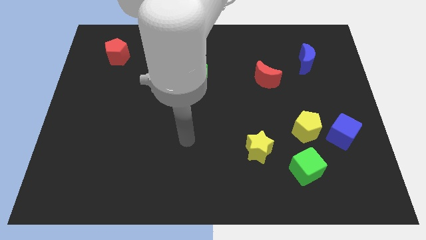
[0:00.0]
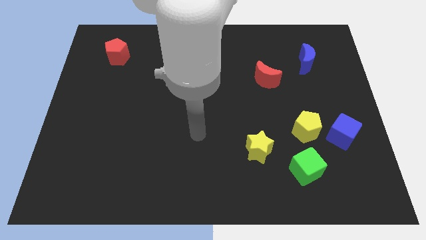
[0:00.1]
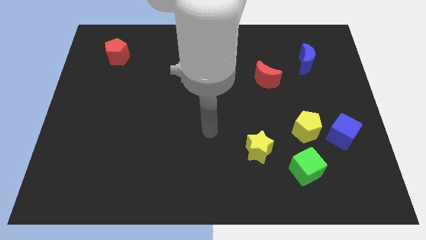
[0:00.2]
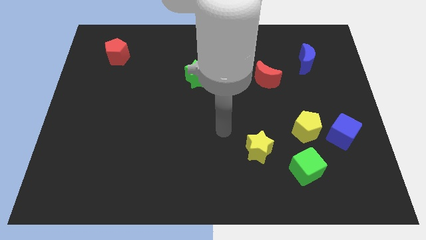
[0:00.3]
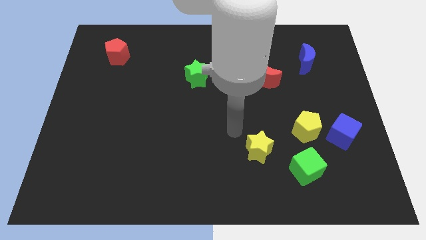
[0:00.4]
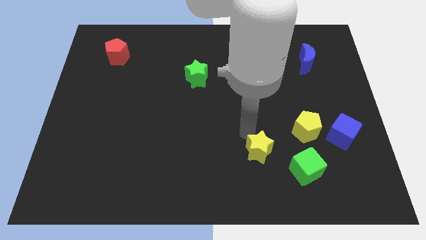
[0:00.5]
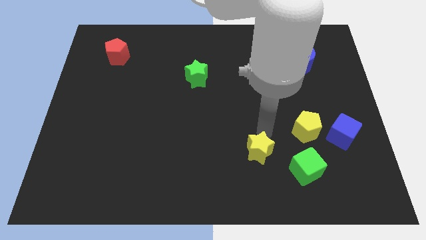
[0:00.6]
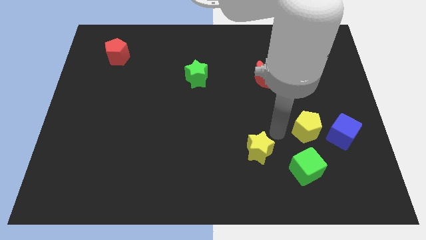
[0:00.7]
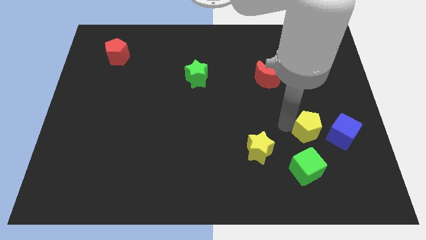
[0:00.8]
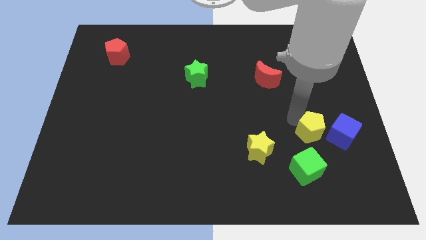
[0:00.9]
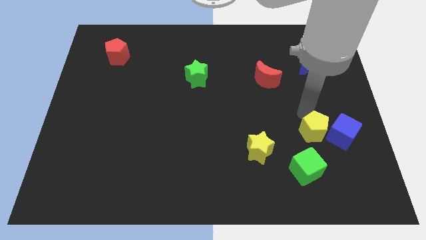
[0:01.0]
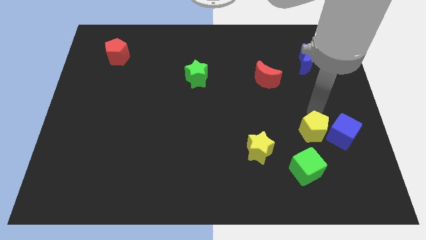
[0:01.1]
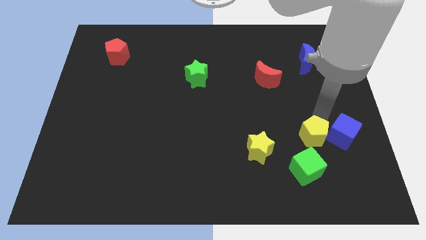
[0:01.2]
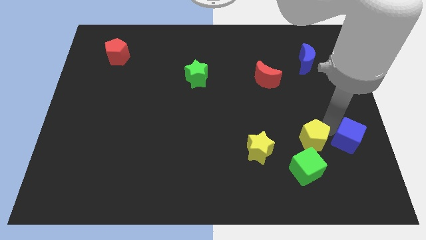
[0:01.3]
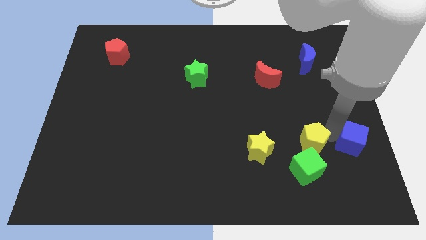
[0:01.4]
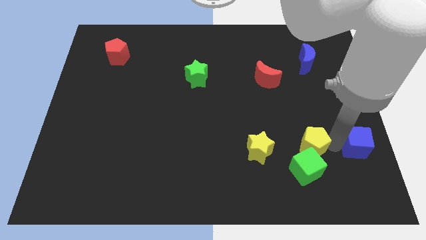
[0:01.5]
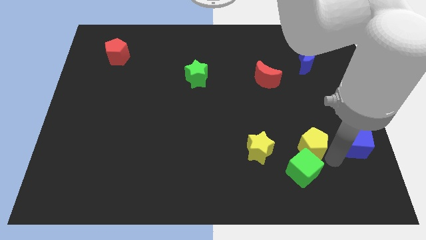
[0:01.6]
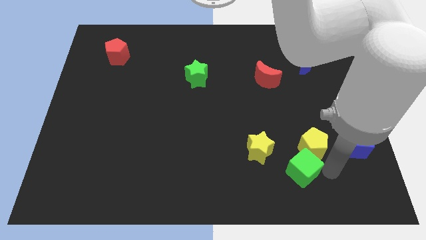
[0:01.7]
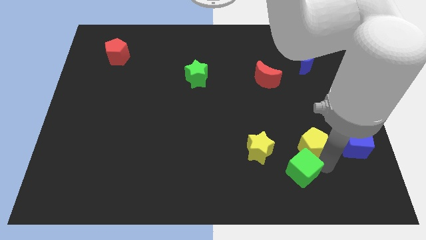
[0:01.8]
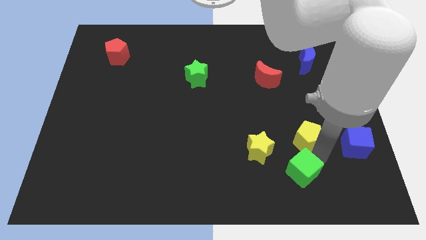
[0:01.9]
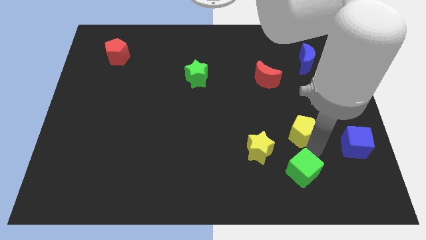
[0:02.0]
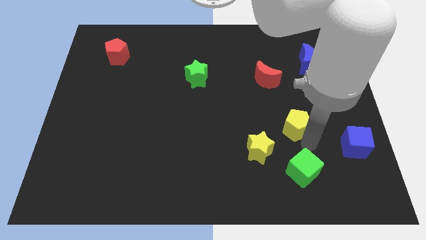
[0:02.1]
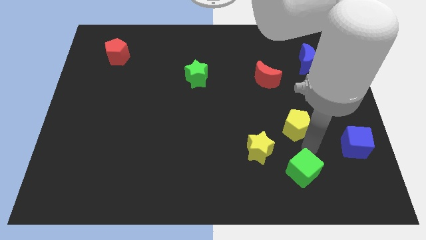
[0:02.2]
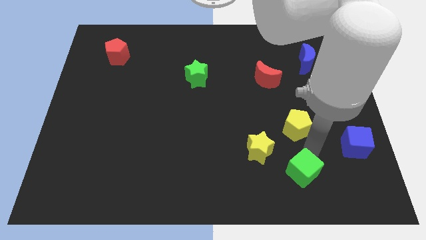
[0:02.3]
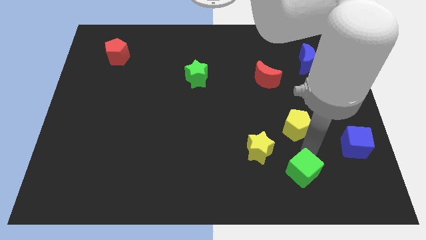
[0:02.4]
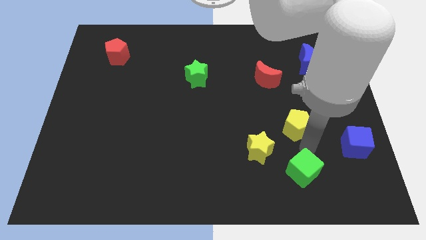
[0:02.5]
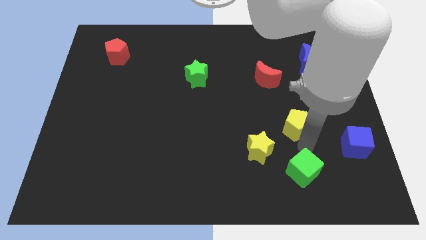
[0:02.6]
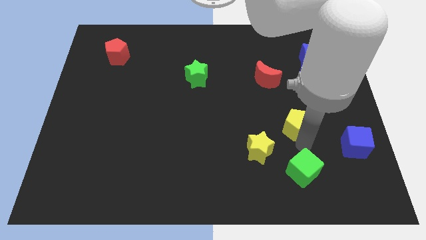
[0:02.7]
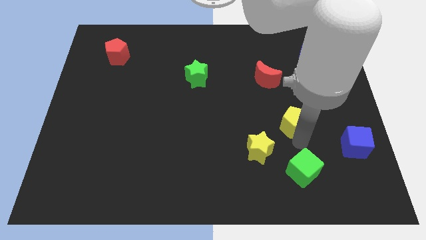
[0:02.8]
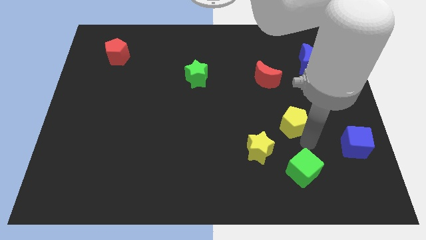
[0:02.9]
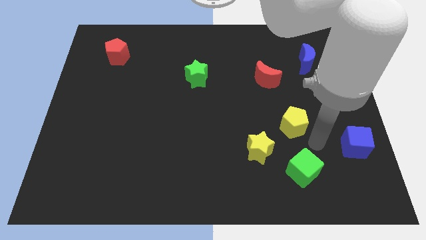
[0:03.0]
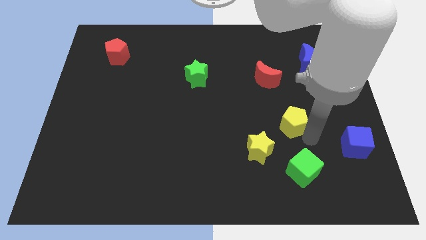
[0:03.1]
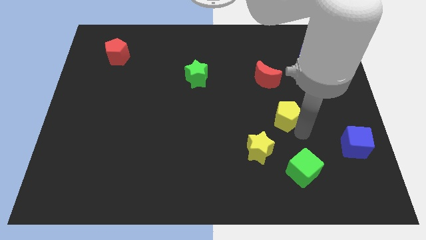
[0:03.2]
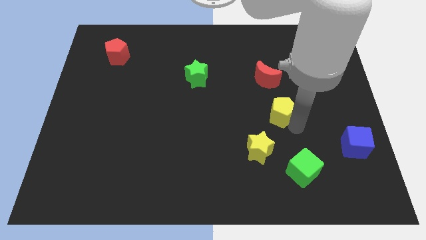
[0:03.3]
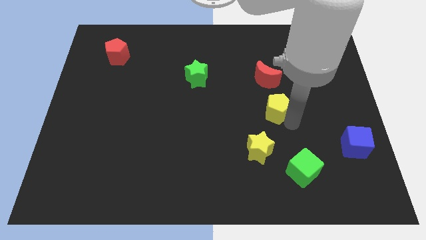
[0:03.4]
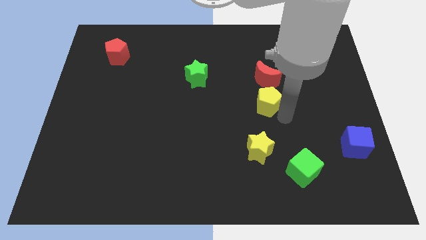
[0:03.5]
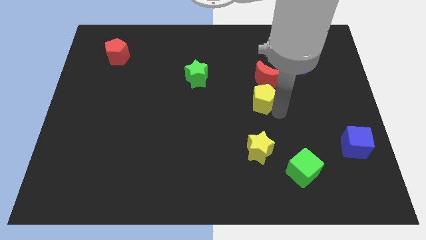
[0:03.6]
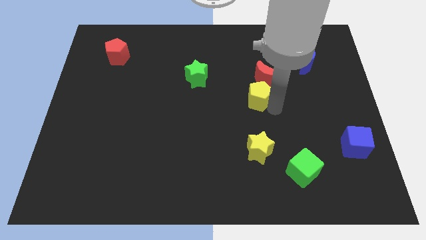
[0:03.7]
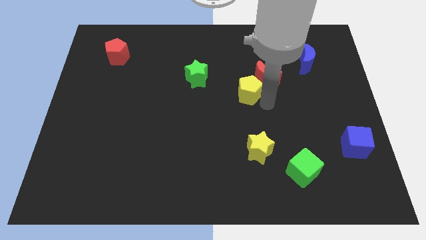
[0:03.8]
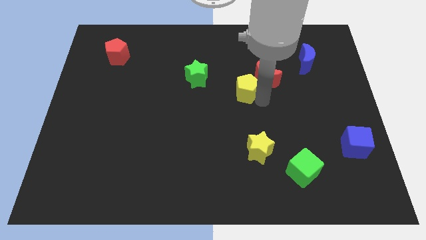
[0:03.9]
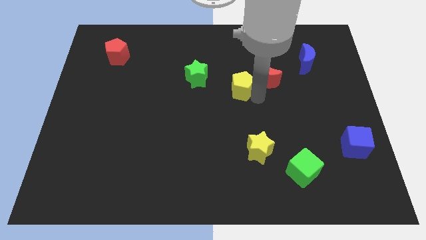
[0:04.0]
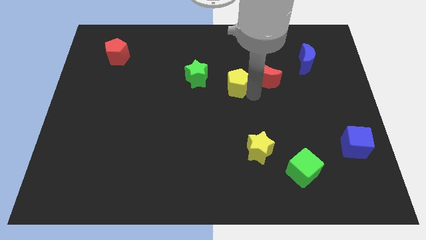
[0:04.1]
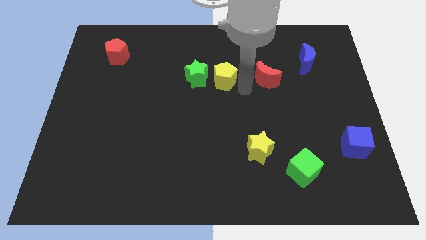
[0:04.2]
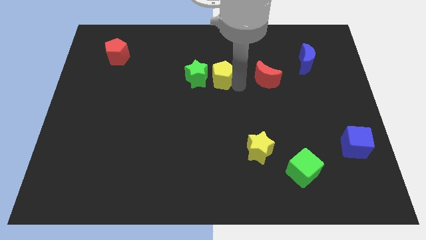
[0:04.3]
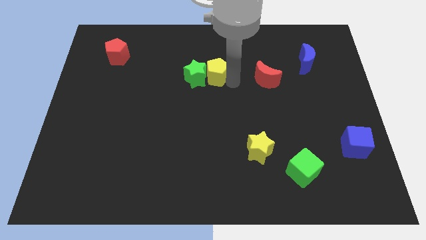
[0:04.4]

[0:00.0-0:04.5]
slide the yellow pentagon close to the green star

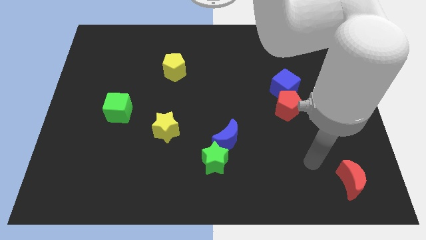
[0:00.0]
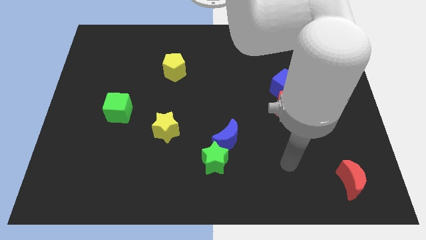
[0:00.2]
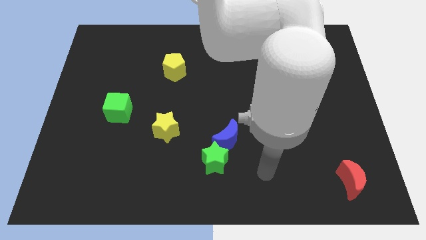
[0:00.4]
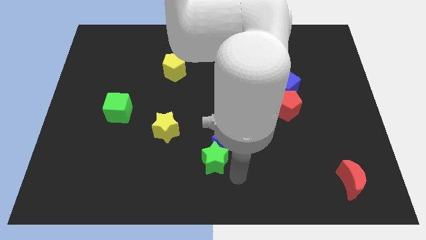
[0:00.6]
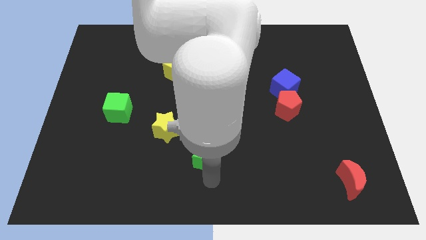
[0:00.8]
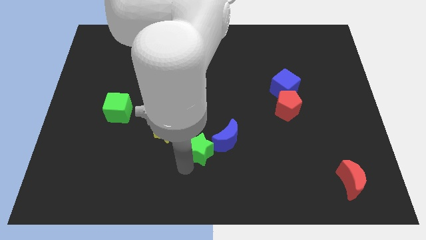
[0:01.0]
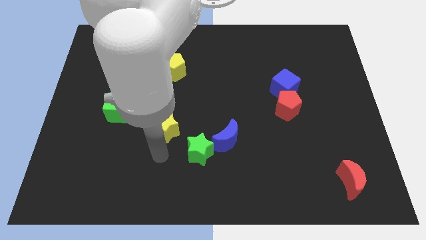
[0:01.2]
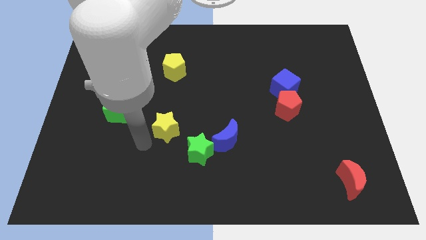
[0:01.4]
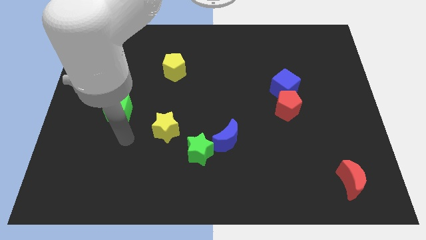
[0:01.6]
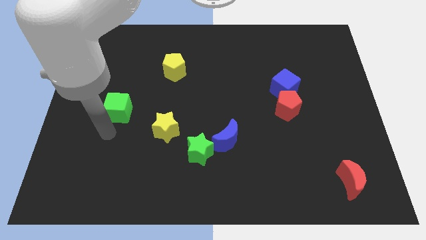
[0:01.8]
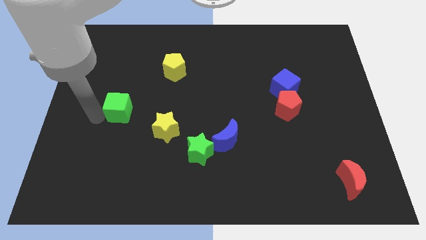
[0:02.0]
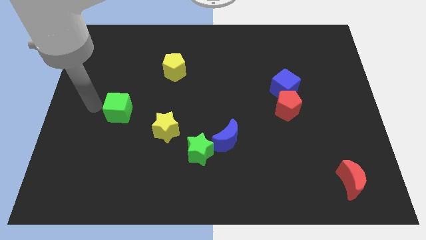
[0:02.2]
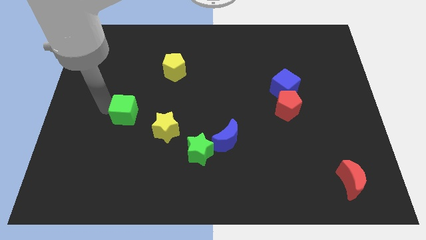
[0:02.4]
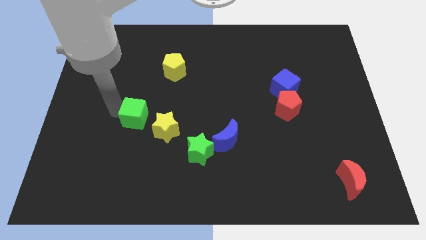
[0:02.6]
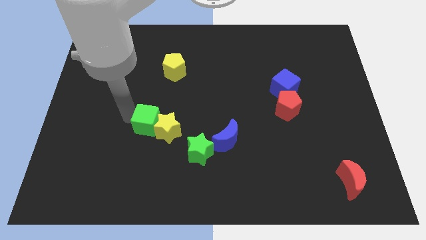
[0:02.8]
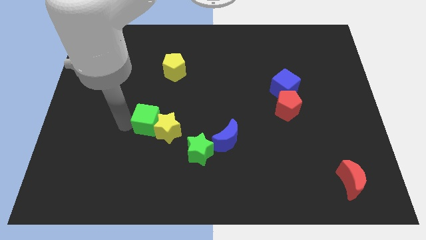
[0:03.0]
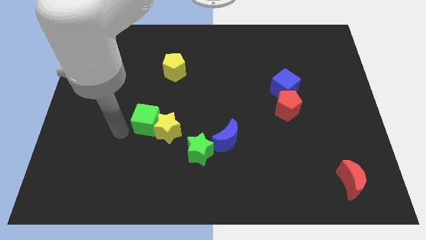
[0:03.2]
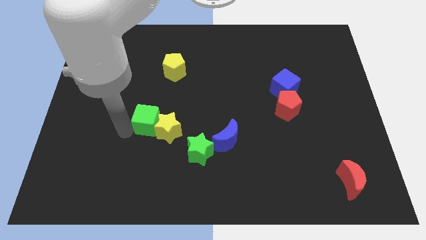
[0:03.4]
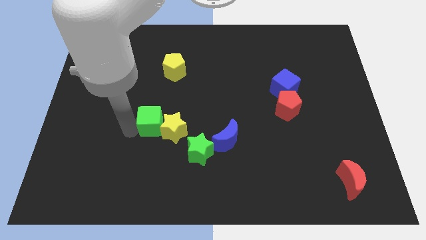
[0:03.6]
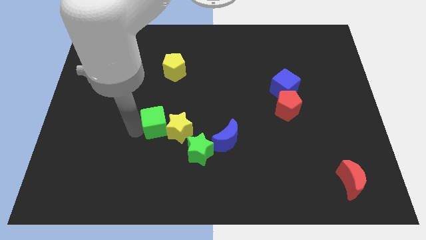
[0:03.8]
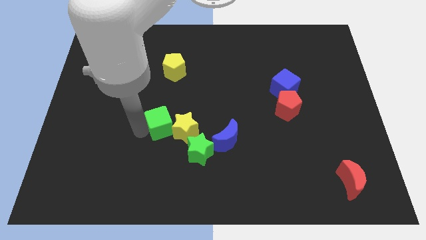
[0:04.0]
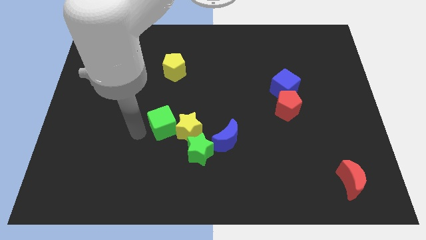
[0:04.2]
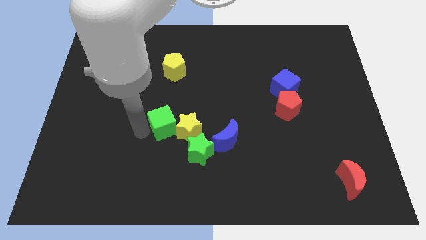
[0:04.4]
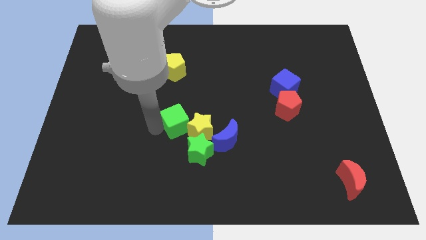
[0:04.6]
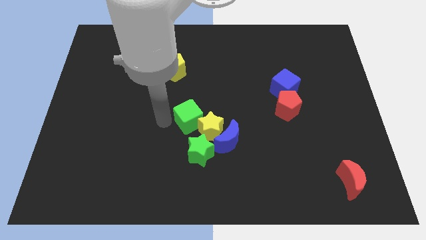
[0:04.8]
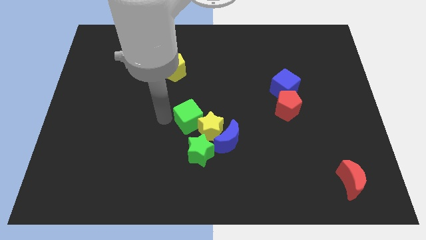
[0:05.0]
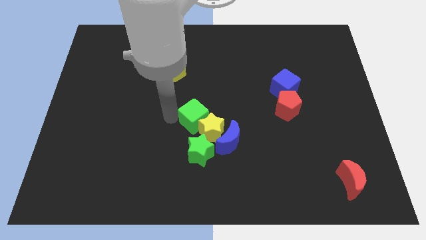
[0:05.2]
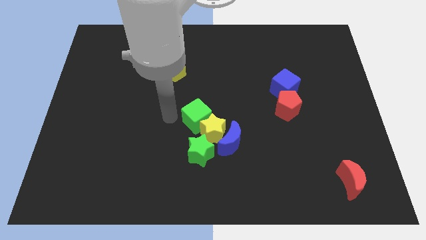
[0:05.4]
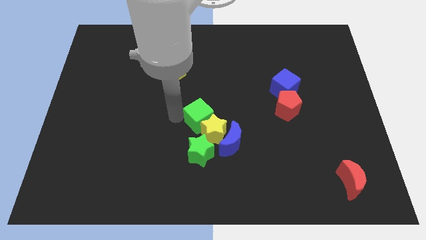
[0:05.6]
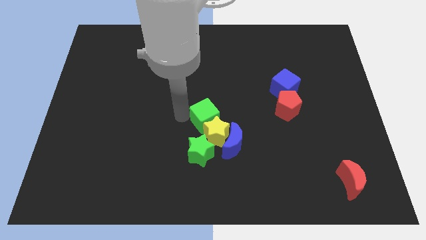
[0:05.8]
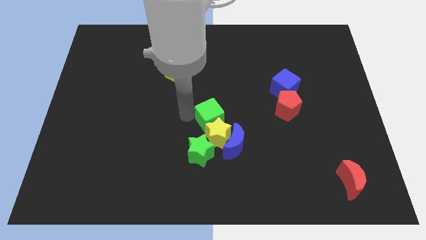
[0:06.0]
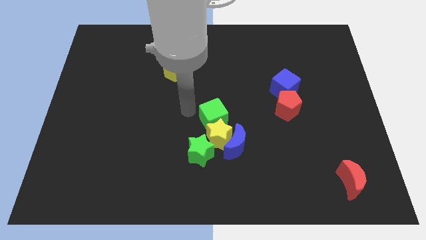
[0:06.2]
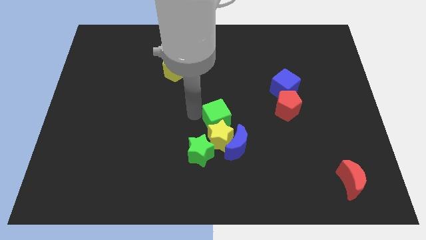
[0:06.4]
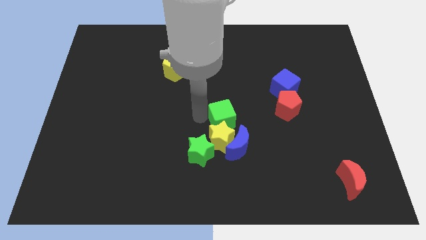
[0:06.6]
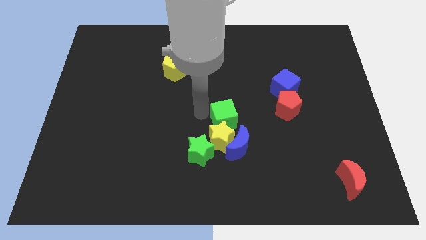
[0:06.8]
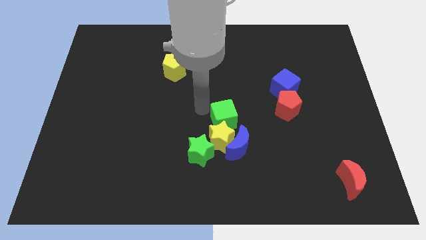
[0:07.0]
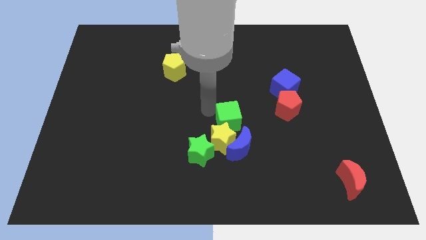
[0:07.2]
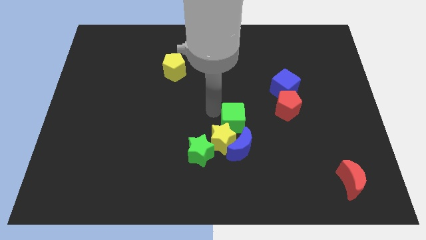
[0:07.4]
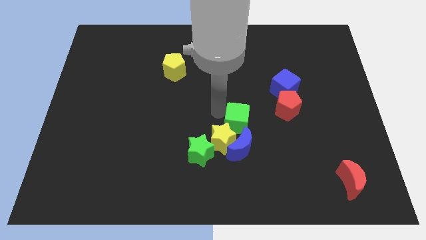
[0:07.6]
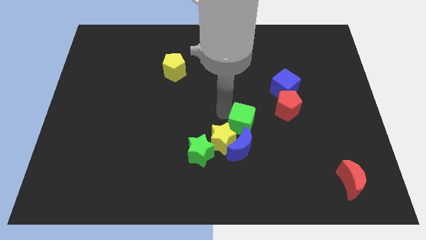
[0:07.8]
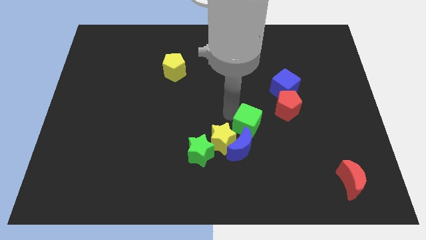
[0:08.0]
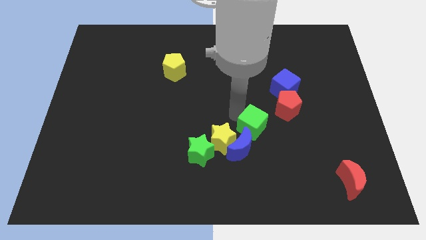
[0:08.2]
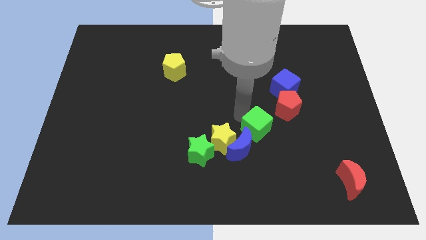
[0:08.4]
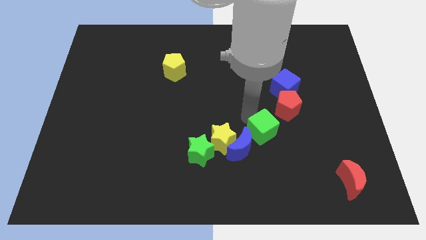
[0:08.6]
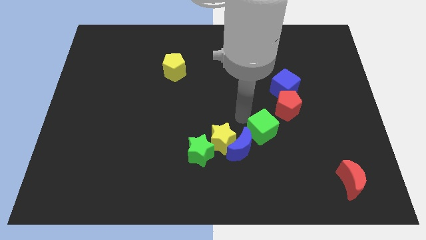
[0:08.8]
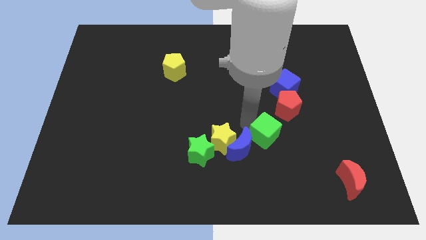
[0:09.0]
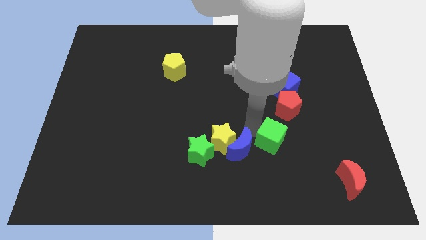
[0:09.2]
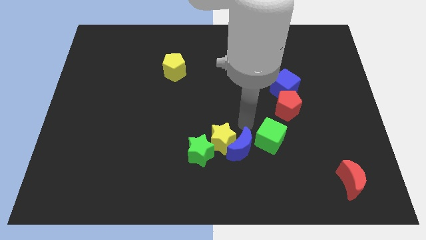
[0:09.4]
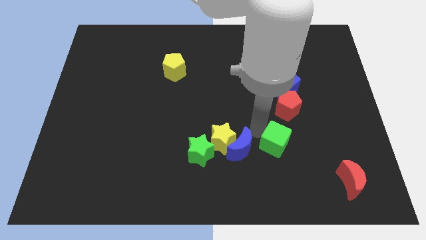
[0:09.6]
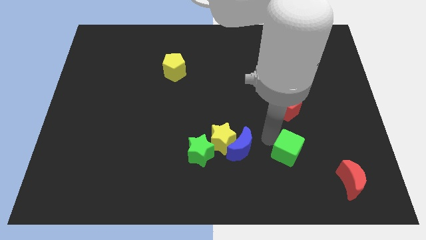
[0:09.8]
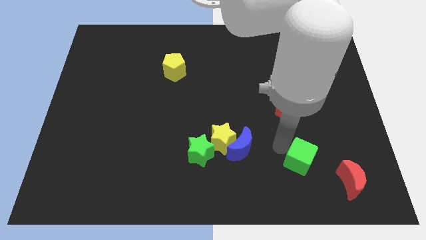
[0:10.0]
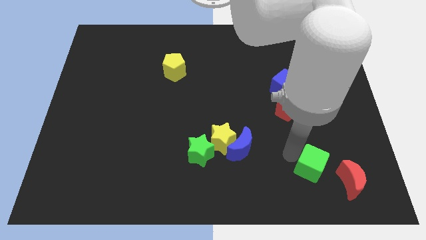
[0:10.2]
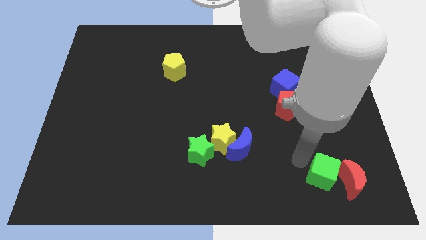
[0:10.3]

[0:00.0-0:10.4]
put the green cube next to the red moon
